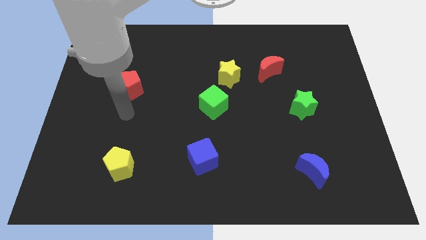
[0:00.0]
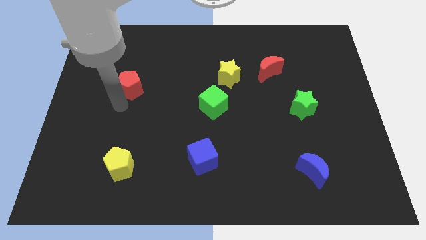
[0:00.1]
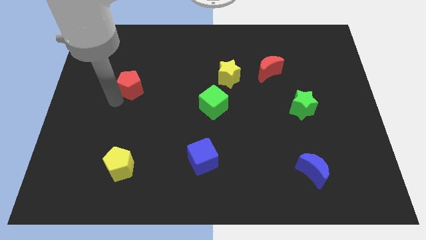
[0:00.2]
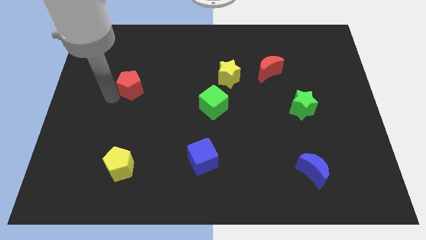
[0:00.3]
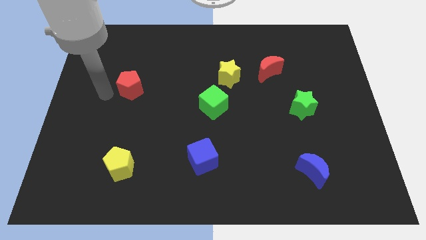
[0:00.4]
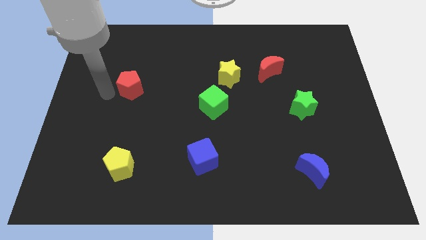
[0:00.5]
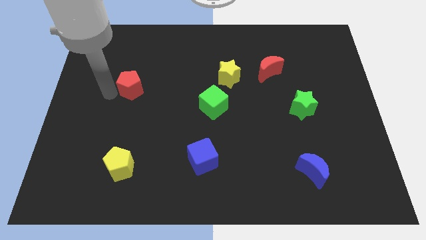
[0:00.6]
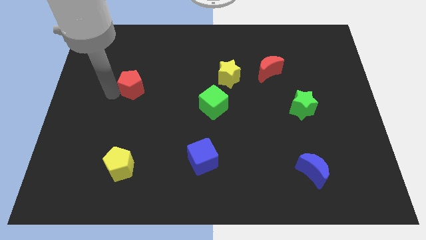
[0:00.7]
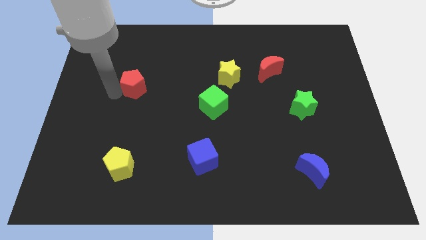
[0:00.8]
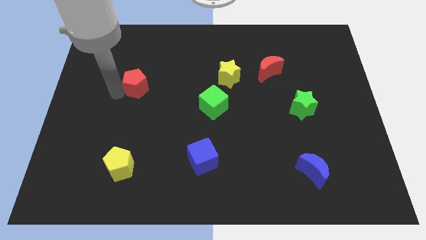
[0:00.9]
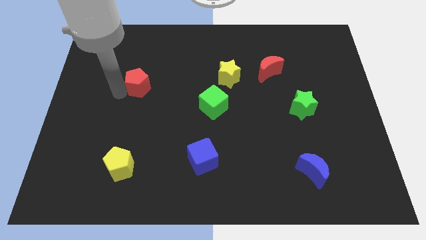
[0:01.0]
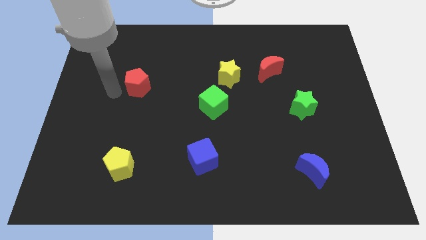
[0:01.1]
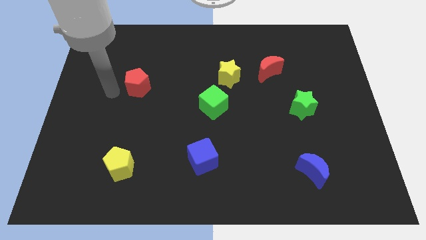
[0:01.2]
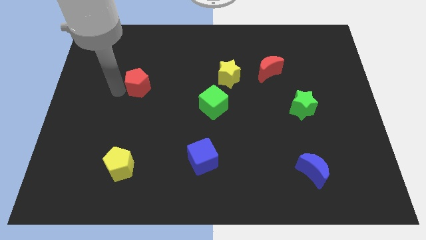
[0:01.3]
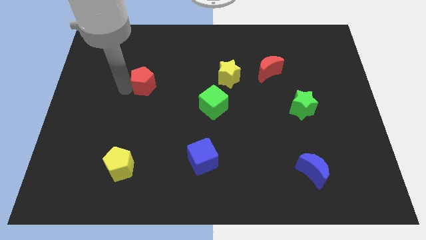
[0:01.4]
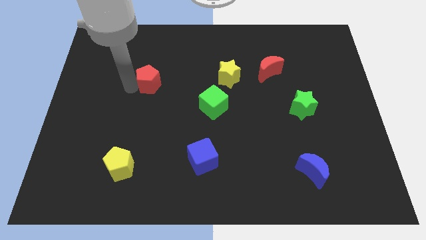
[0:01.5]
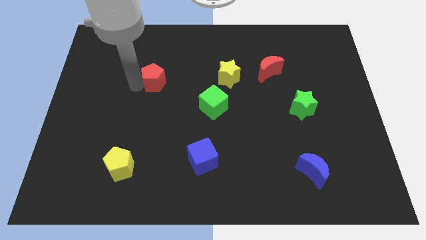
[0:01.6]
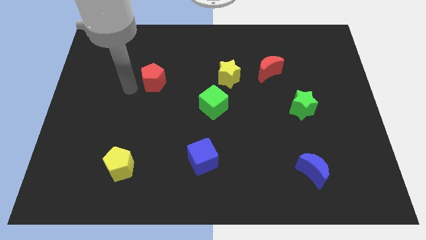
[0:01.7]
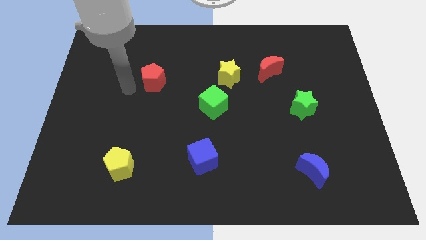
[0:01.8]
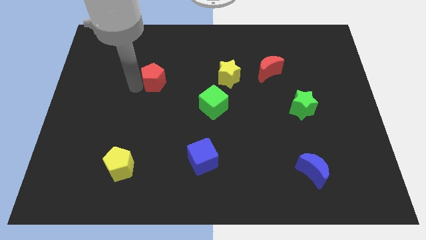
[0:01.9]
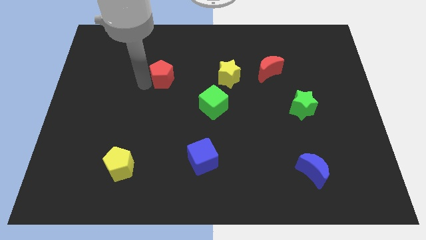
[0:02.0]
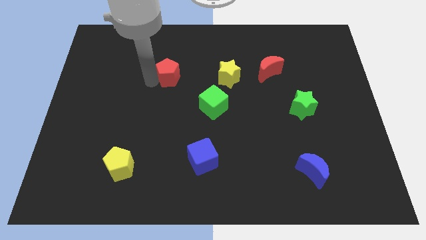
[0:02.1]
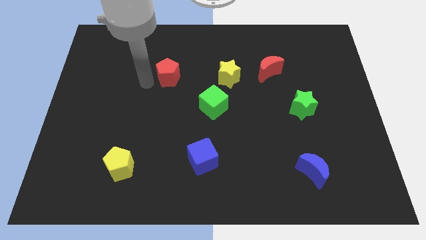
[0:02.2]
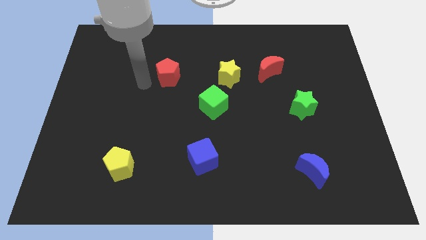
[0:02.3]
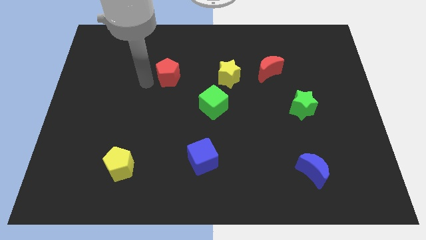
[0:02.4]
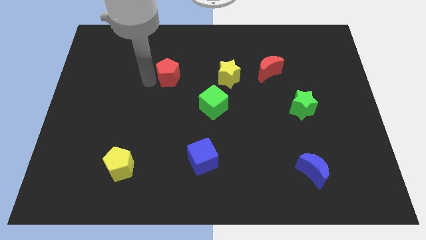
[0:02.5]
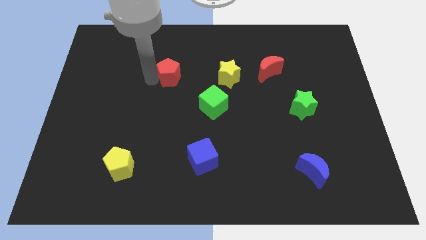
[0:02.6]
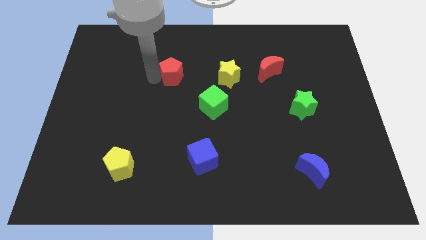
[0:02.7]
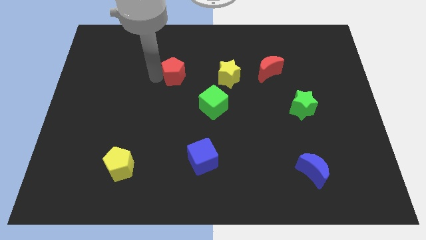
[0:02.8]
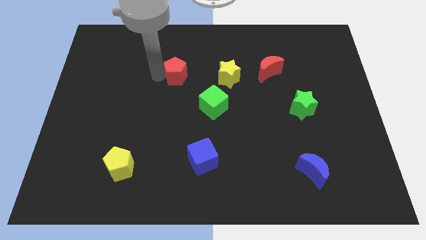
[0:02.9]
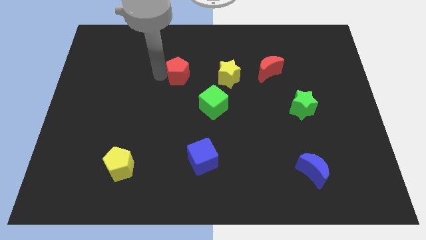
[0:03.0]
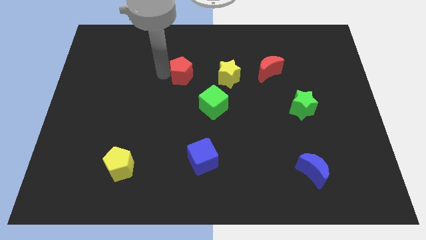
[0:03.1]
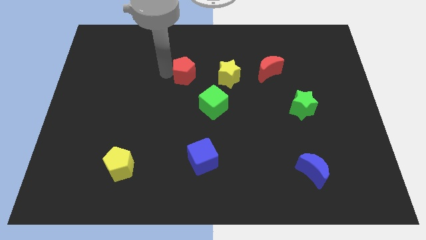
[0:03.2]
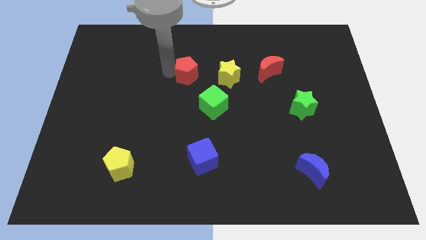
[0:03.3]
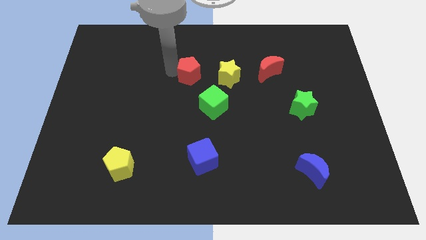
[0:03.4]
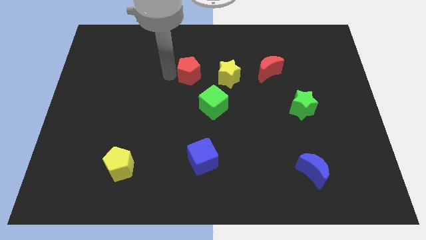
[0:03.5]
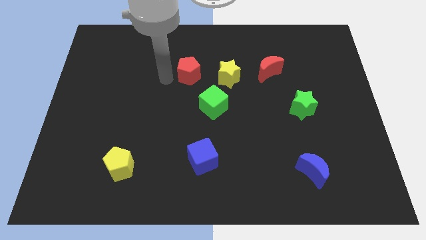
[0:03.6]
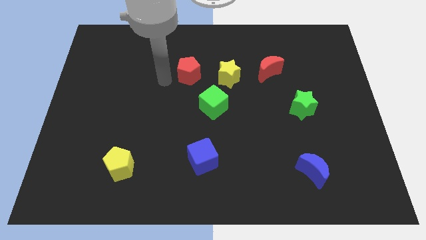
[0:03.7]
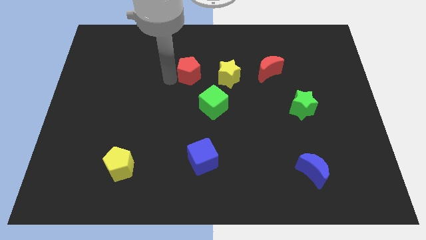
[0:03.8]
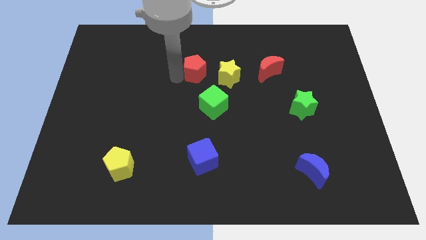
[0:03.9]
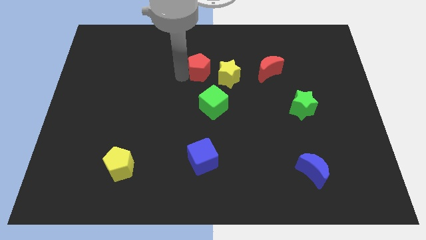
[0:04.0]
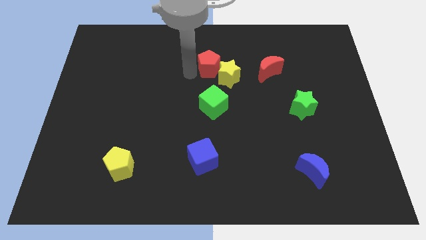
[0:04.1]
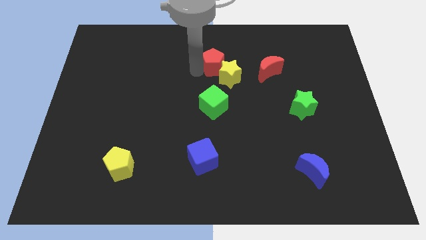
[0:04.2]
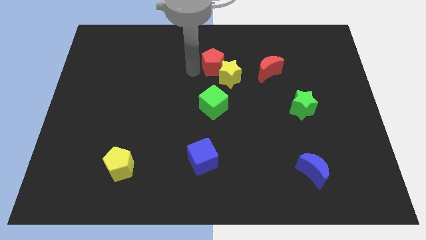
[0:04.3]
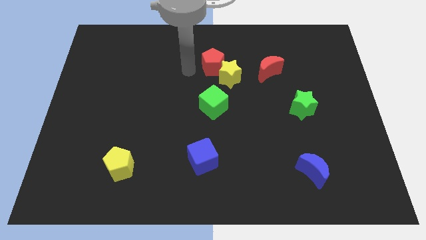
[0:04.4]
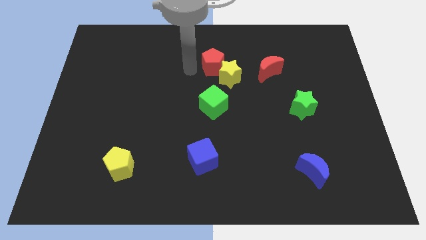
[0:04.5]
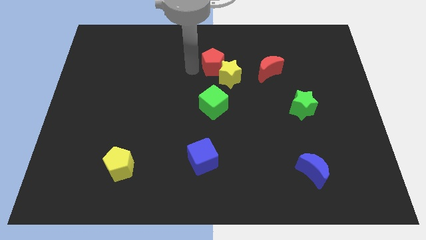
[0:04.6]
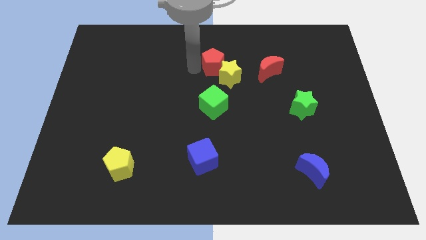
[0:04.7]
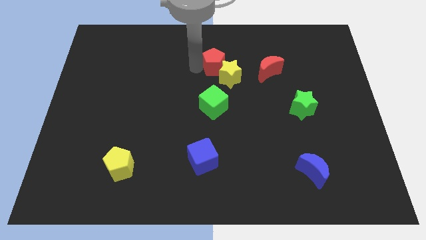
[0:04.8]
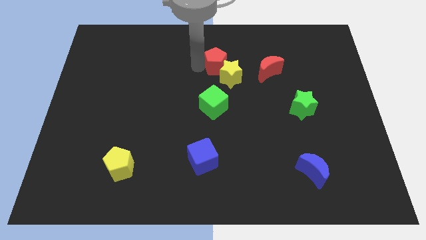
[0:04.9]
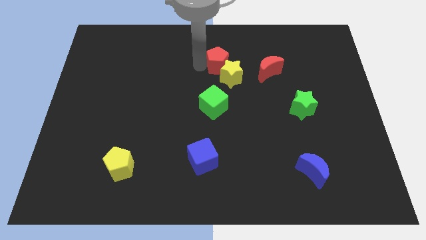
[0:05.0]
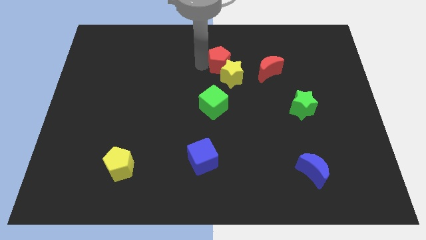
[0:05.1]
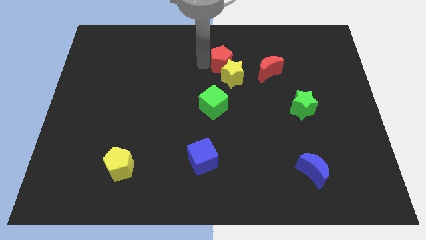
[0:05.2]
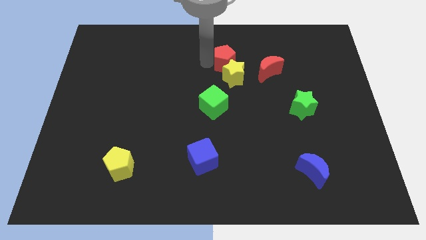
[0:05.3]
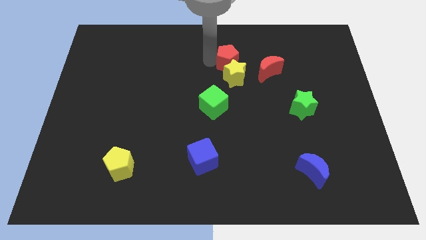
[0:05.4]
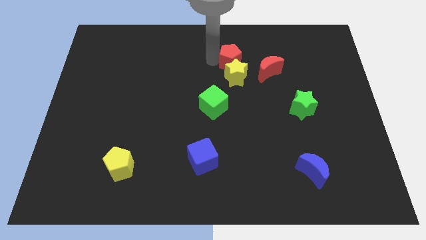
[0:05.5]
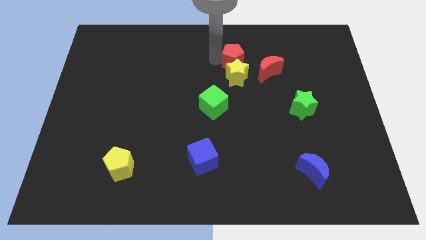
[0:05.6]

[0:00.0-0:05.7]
put the red pentagon diagonally up and to the right of the yellow star

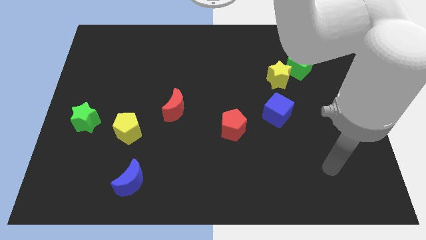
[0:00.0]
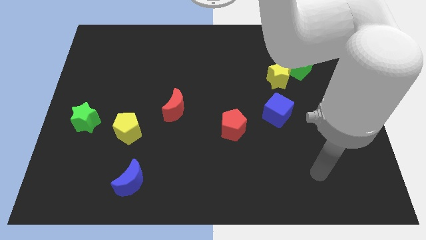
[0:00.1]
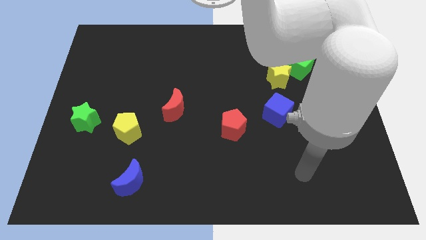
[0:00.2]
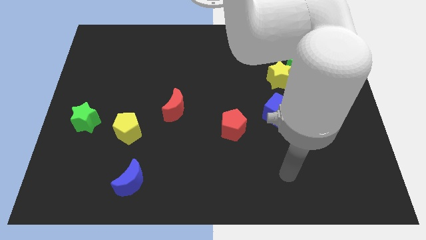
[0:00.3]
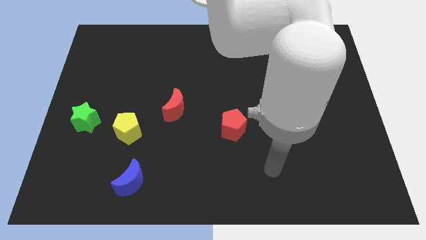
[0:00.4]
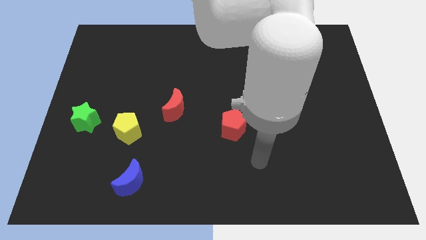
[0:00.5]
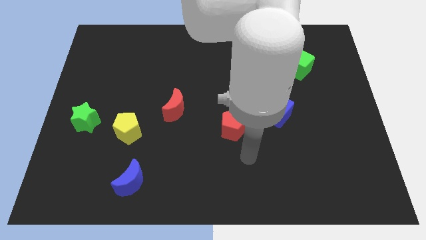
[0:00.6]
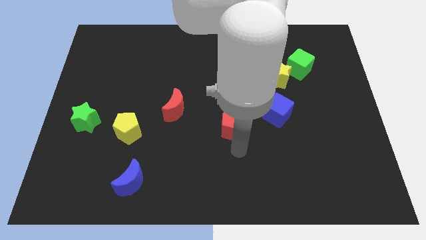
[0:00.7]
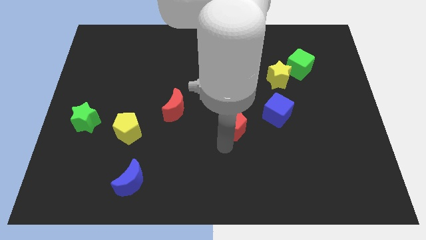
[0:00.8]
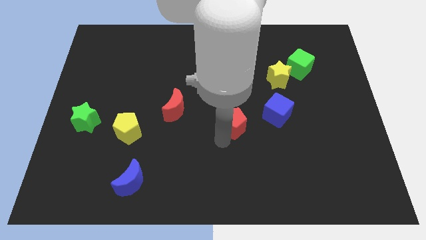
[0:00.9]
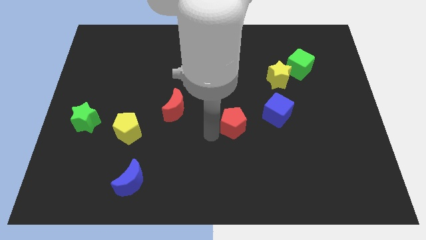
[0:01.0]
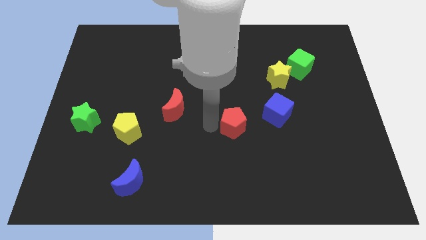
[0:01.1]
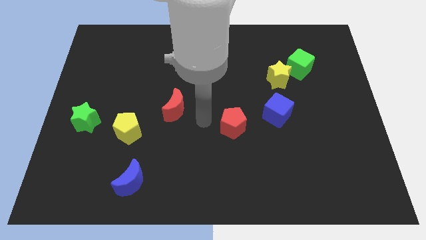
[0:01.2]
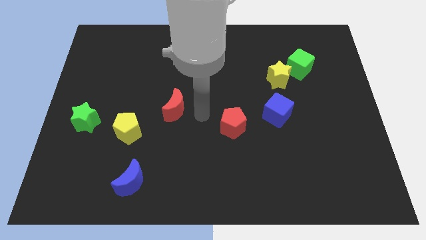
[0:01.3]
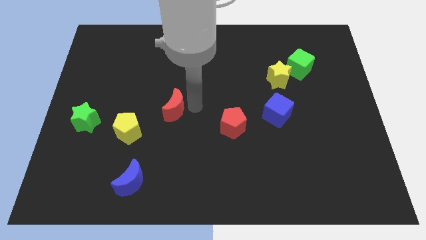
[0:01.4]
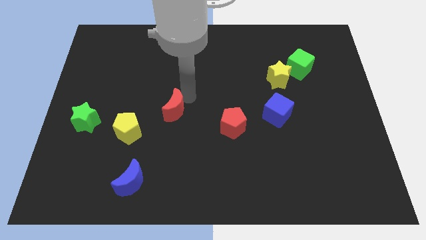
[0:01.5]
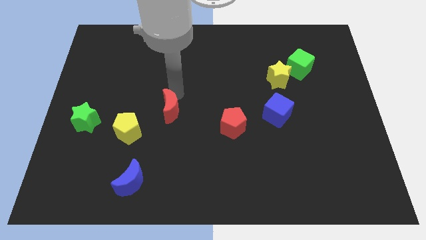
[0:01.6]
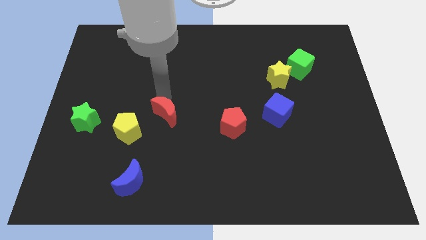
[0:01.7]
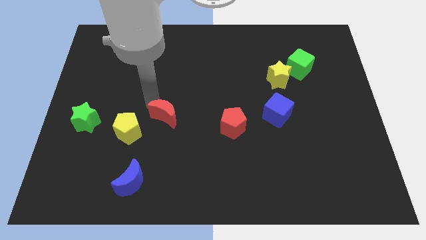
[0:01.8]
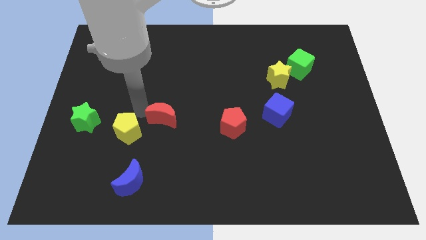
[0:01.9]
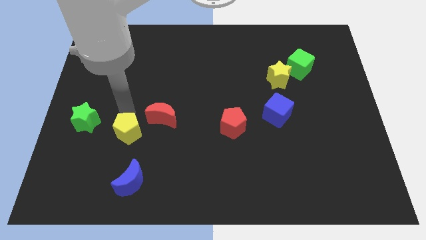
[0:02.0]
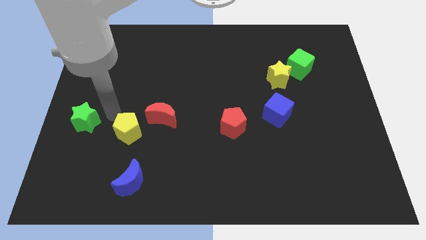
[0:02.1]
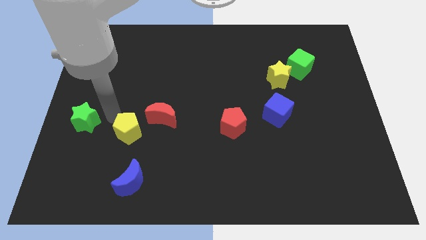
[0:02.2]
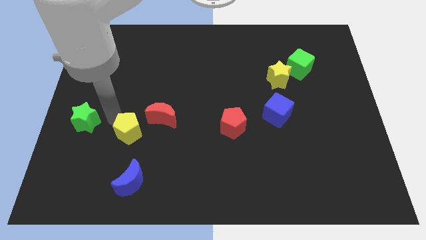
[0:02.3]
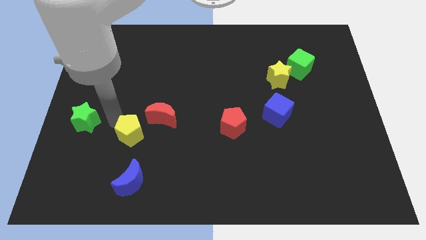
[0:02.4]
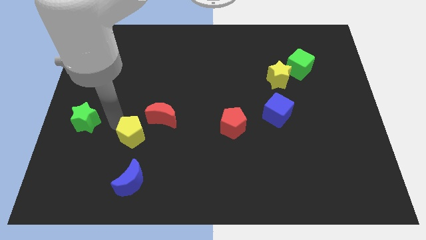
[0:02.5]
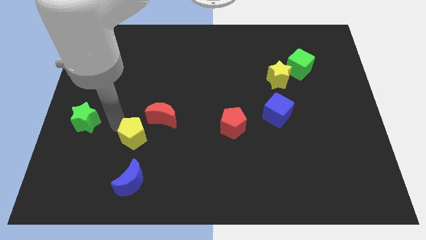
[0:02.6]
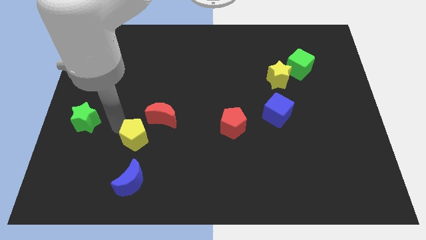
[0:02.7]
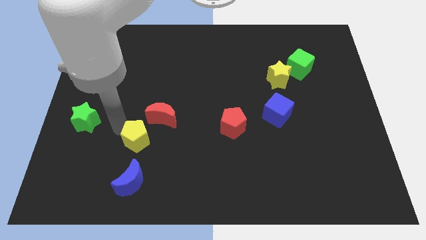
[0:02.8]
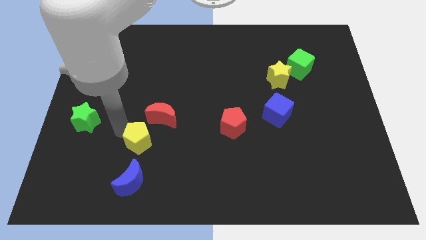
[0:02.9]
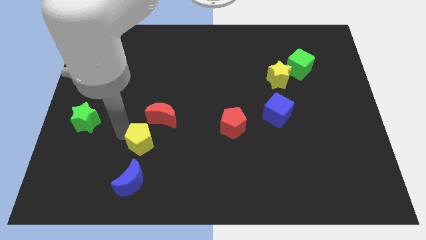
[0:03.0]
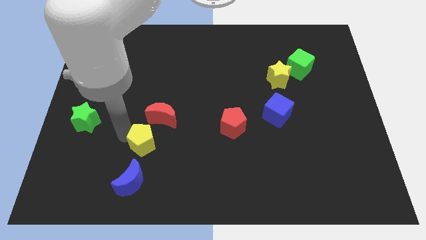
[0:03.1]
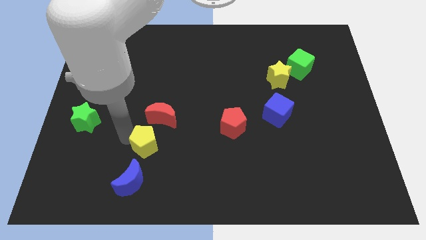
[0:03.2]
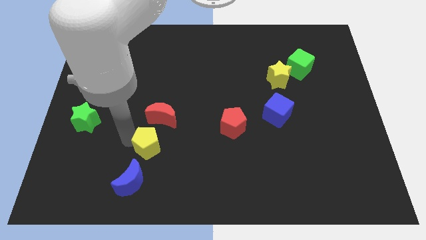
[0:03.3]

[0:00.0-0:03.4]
push the yellow pentagon to the top right of the blue moon
